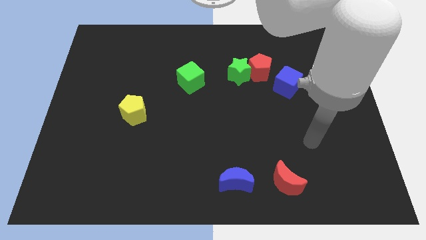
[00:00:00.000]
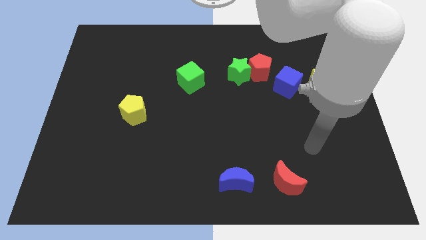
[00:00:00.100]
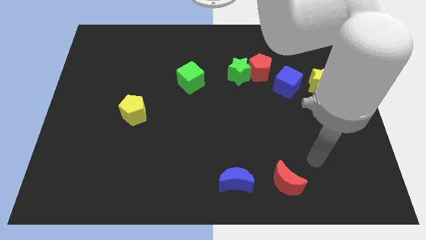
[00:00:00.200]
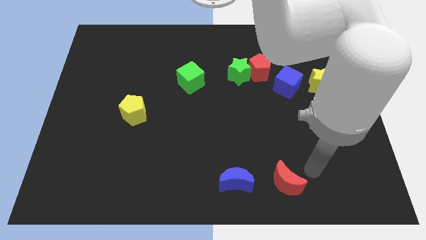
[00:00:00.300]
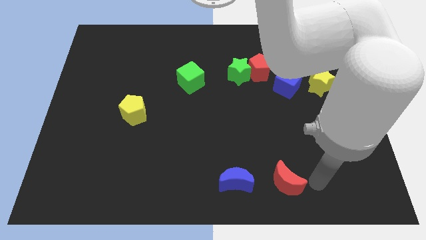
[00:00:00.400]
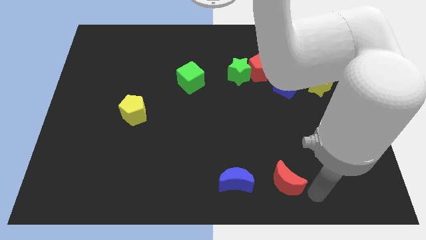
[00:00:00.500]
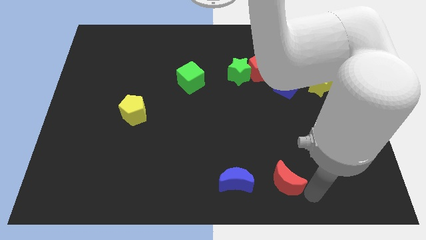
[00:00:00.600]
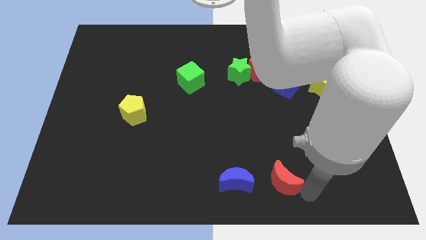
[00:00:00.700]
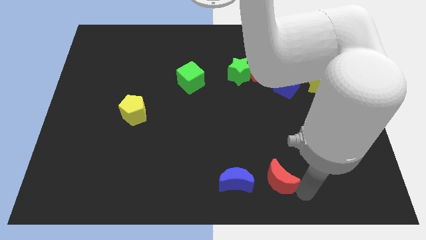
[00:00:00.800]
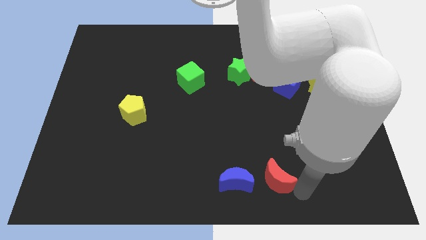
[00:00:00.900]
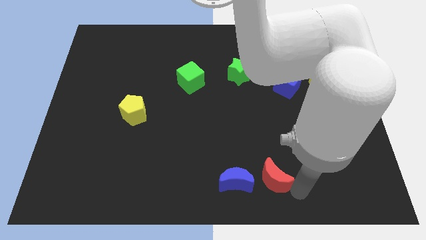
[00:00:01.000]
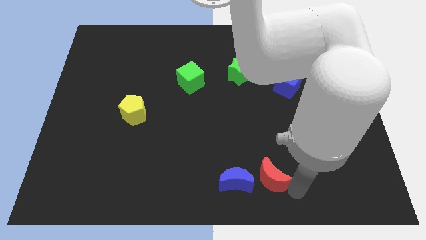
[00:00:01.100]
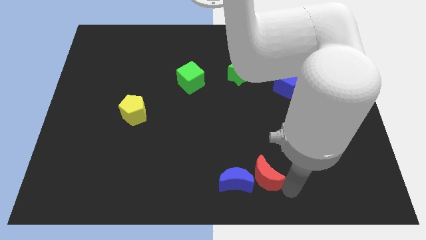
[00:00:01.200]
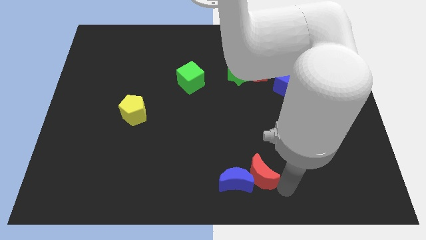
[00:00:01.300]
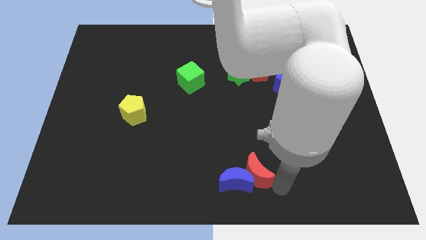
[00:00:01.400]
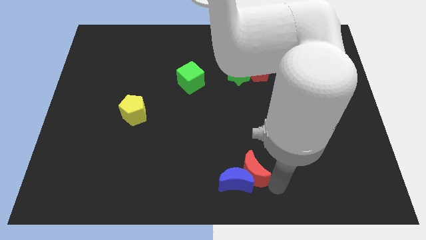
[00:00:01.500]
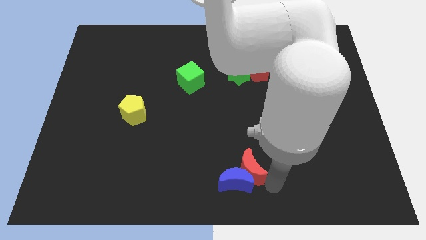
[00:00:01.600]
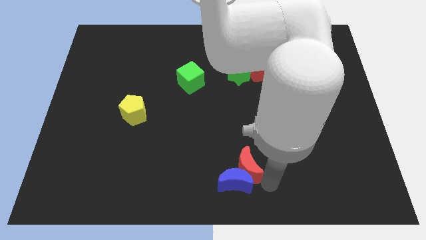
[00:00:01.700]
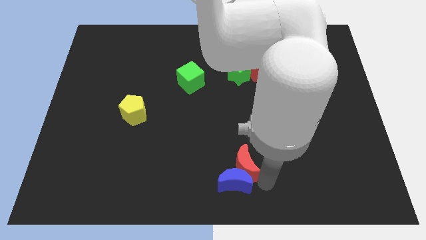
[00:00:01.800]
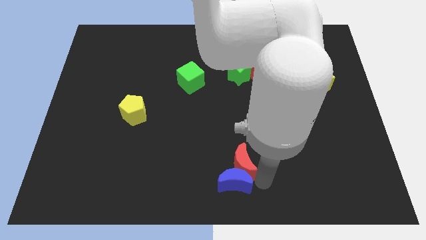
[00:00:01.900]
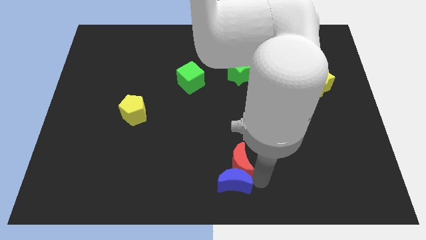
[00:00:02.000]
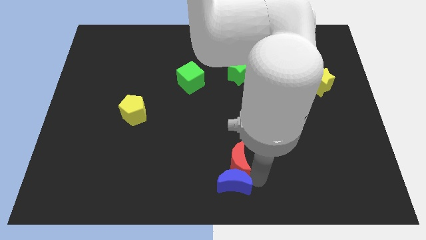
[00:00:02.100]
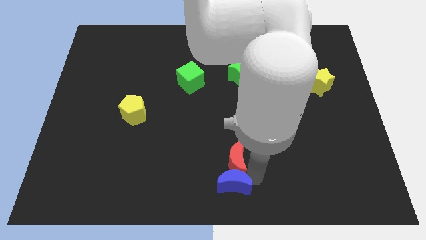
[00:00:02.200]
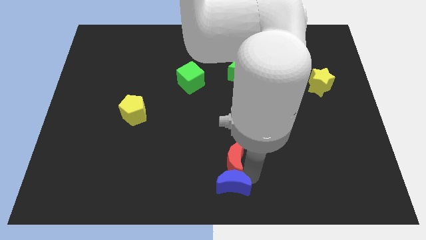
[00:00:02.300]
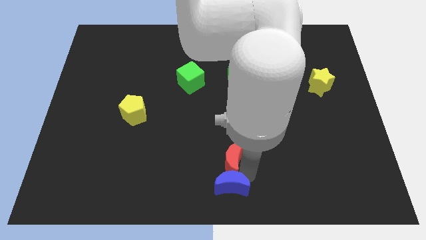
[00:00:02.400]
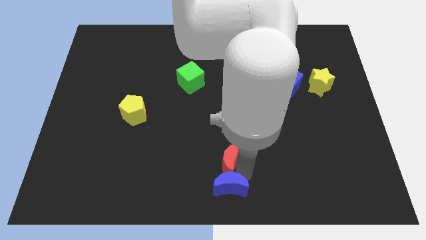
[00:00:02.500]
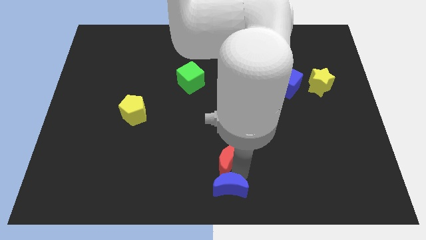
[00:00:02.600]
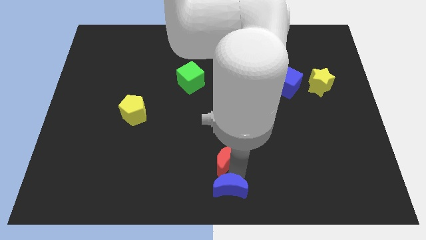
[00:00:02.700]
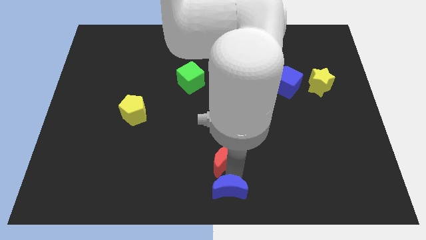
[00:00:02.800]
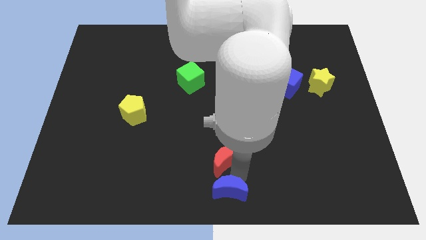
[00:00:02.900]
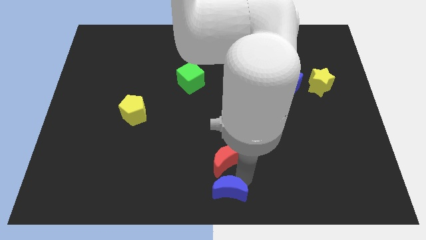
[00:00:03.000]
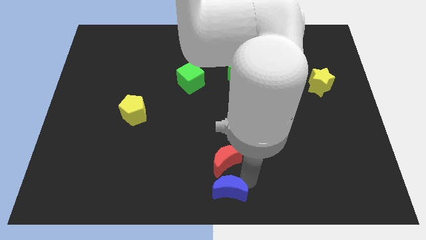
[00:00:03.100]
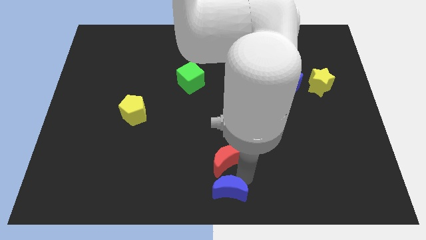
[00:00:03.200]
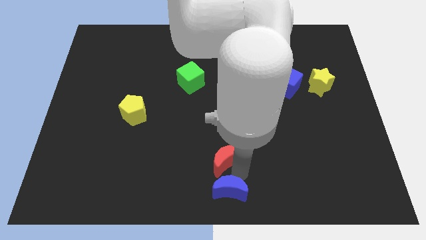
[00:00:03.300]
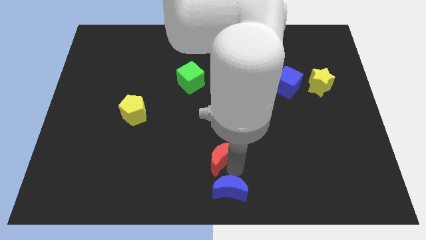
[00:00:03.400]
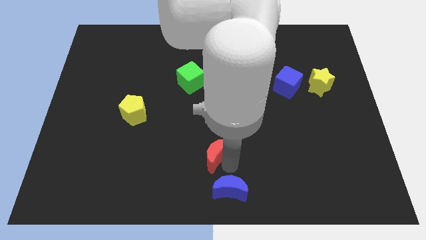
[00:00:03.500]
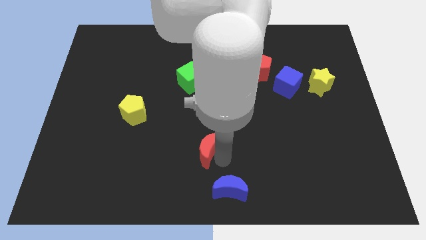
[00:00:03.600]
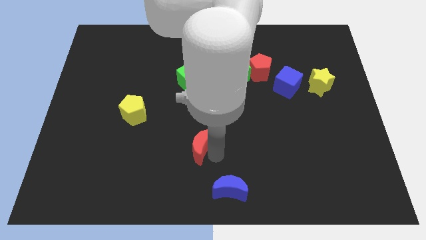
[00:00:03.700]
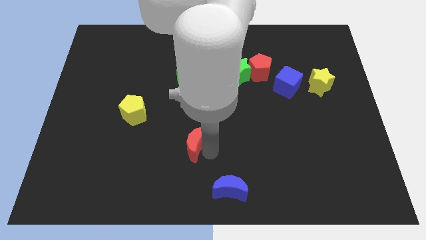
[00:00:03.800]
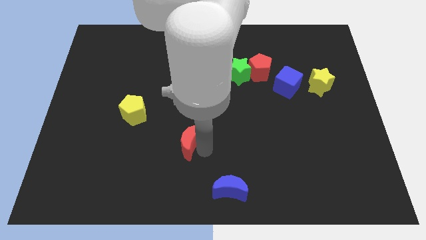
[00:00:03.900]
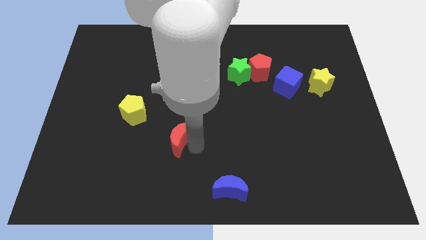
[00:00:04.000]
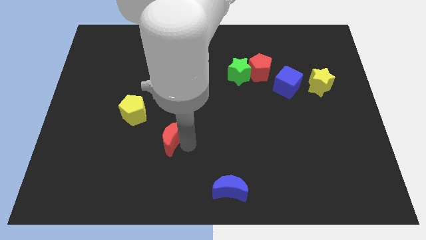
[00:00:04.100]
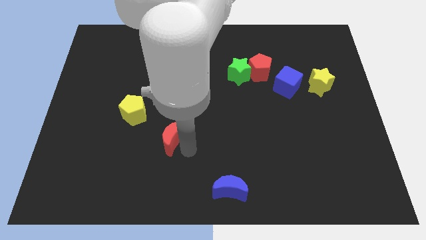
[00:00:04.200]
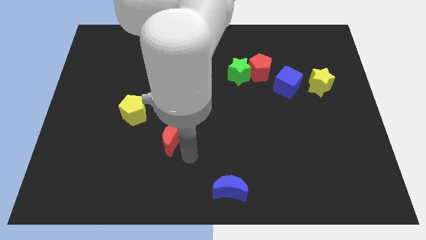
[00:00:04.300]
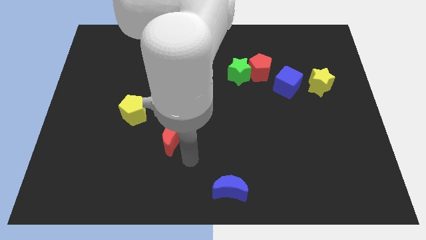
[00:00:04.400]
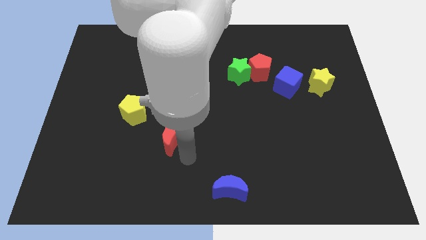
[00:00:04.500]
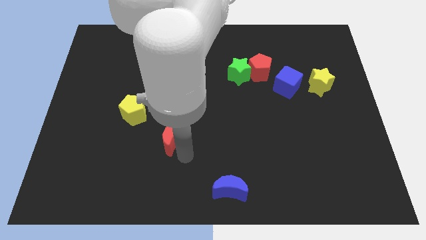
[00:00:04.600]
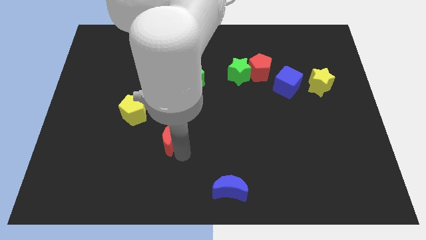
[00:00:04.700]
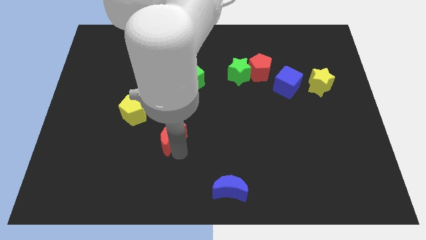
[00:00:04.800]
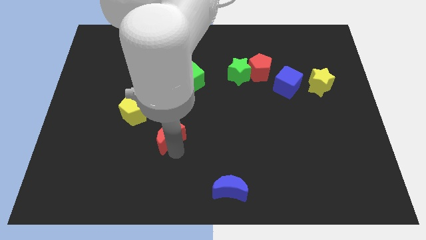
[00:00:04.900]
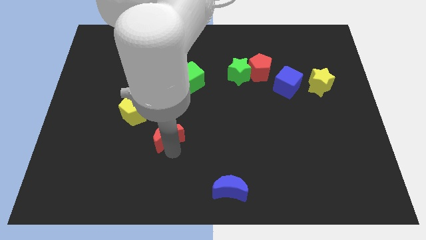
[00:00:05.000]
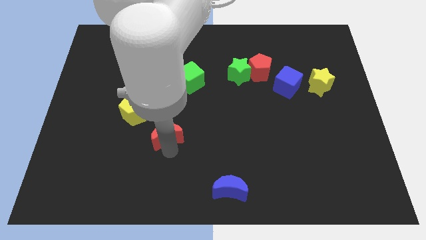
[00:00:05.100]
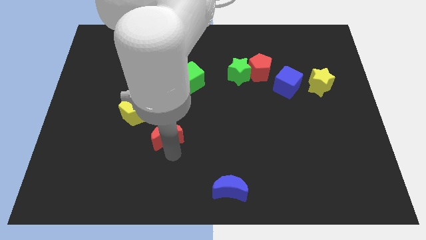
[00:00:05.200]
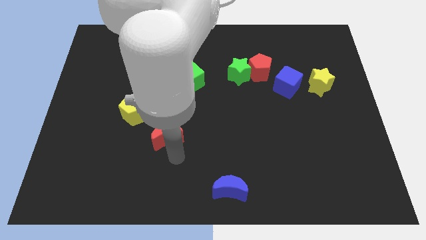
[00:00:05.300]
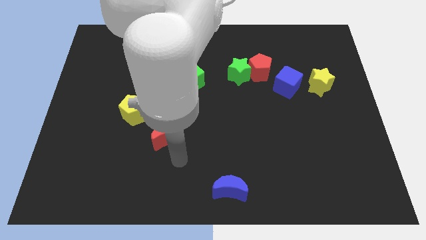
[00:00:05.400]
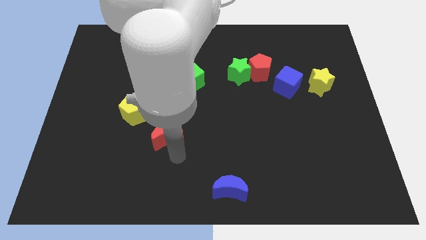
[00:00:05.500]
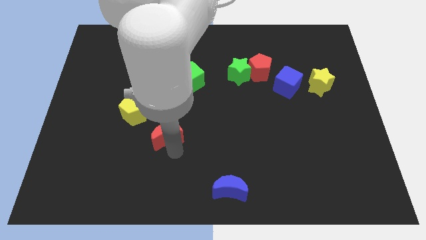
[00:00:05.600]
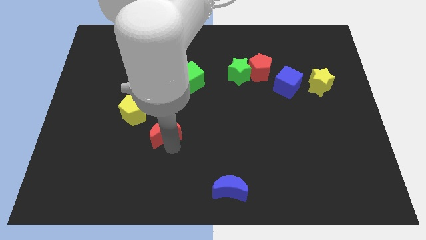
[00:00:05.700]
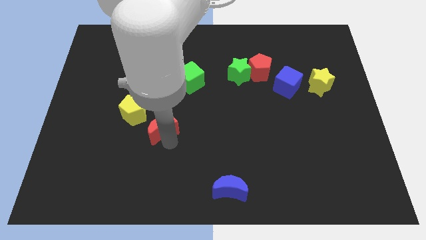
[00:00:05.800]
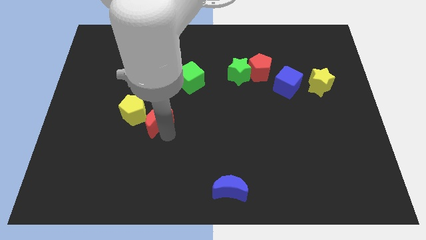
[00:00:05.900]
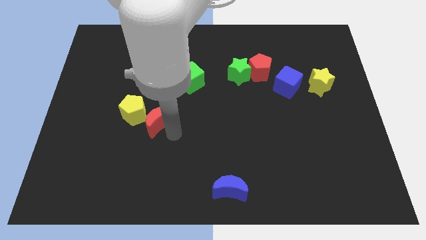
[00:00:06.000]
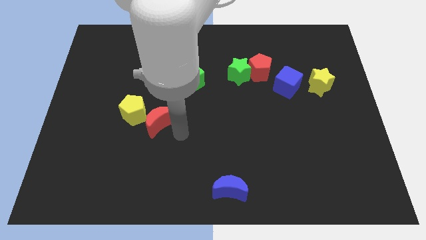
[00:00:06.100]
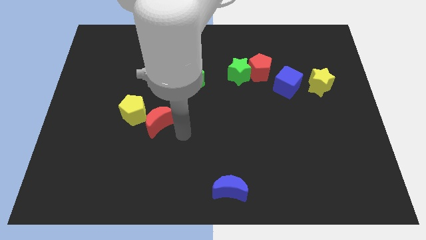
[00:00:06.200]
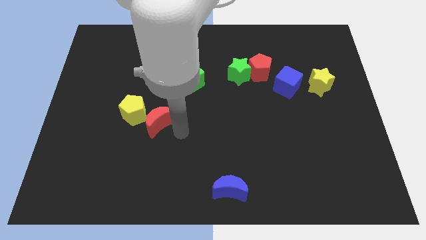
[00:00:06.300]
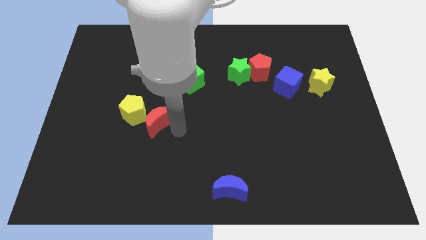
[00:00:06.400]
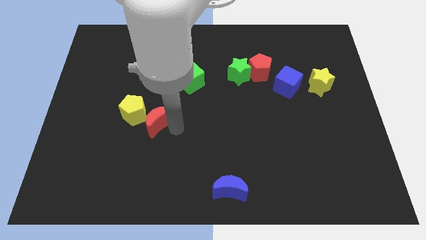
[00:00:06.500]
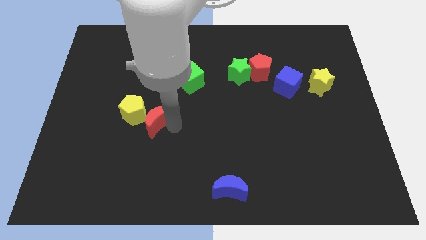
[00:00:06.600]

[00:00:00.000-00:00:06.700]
push the red moon towards the yellow pentagon
